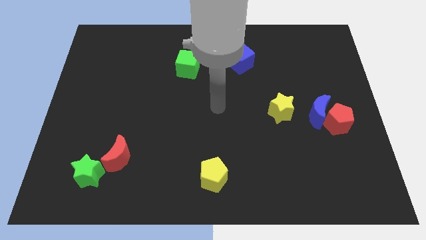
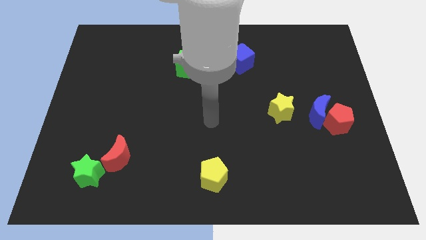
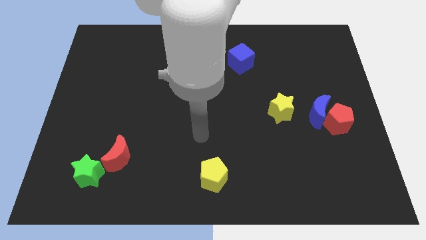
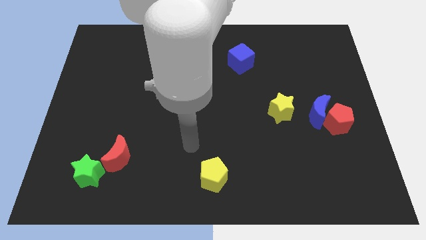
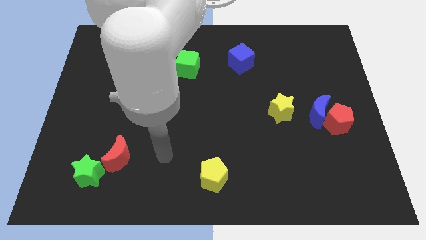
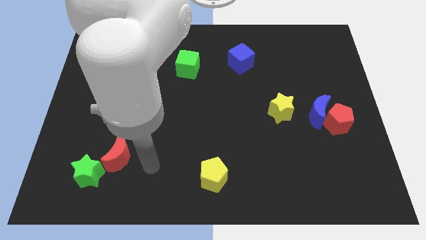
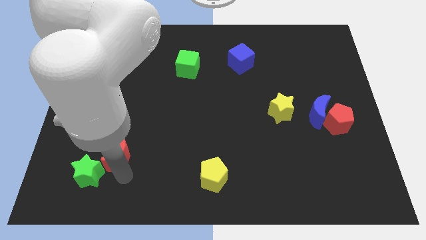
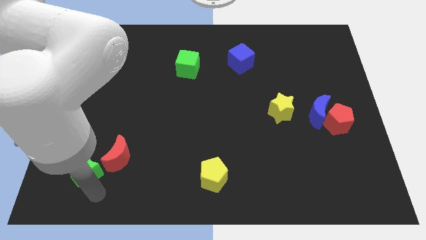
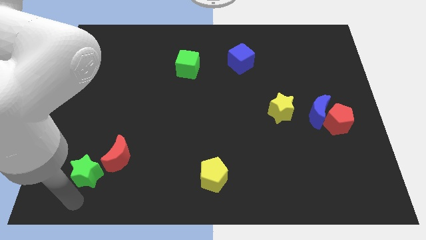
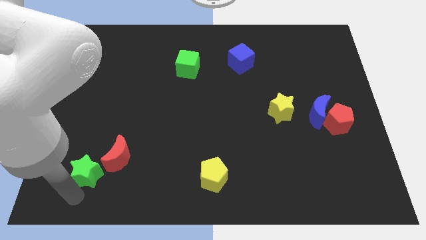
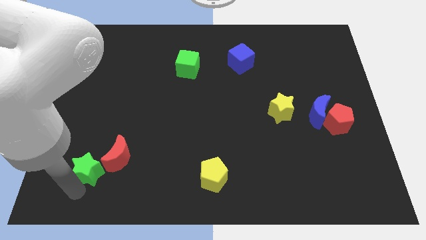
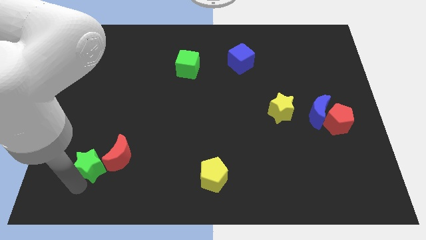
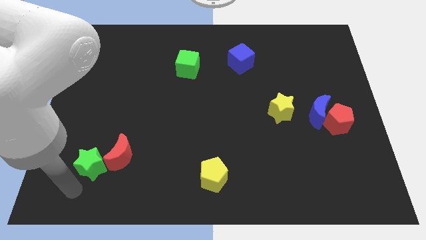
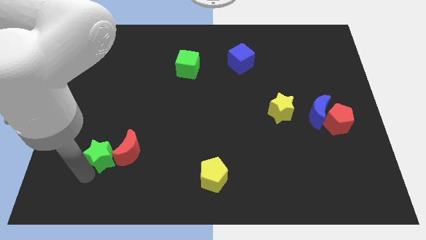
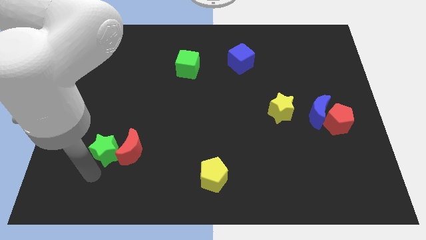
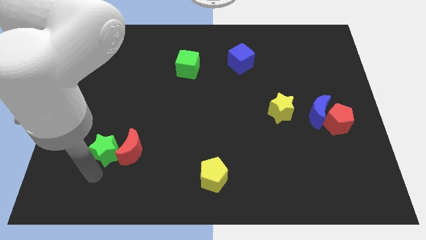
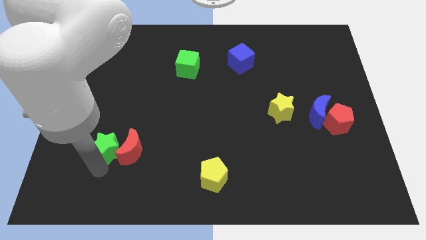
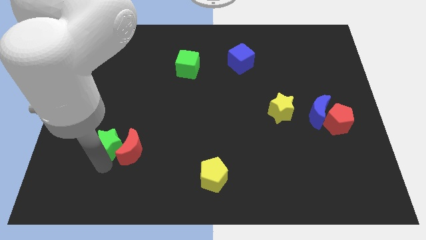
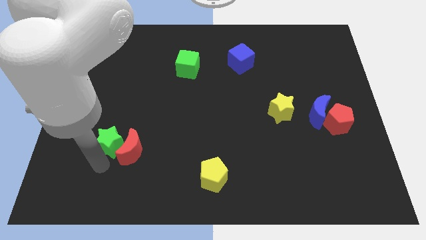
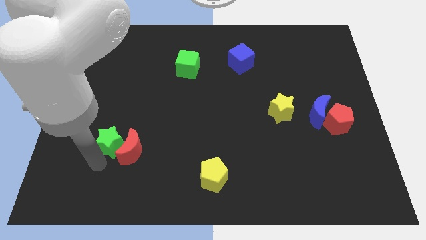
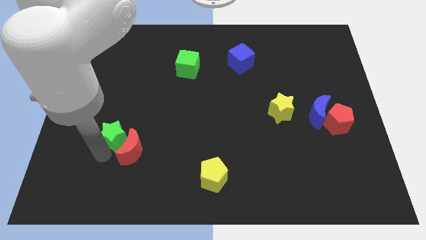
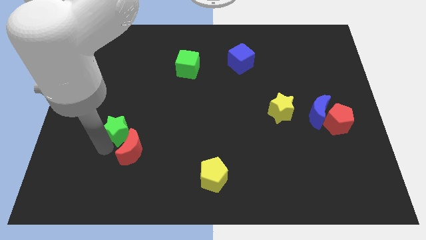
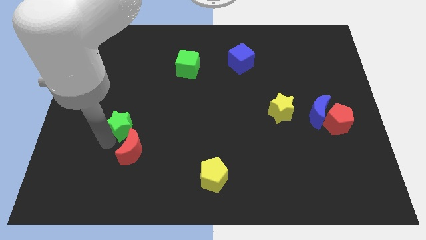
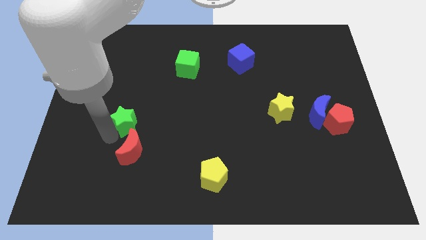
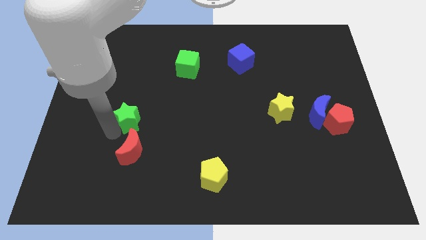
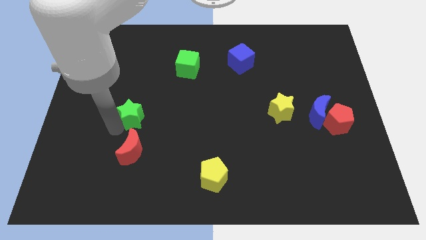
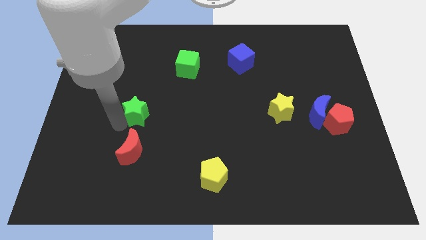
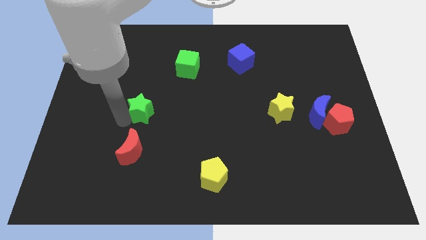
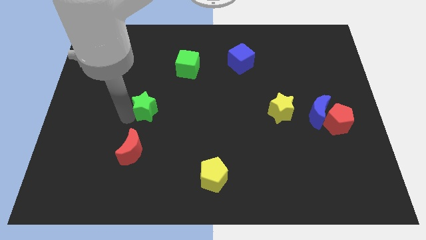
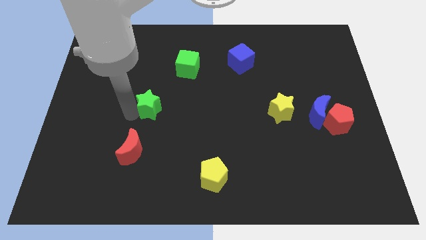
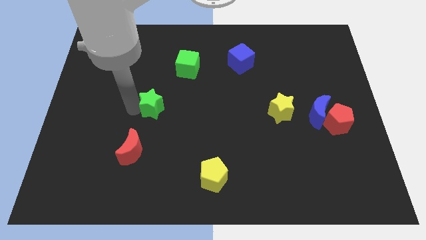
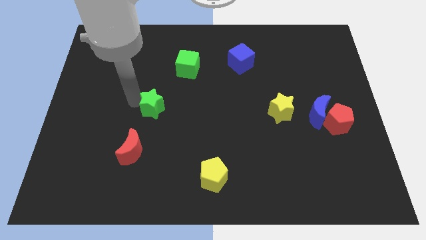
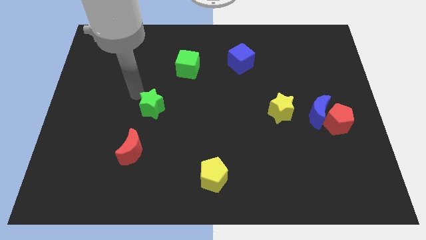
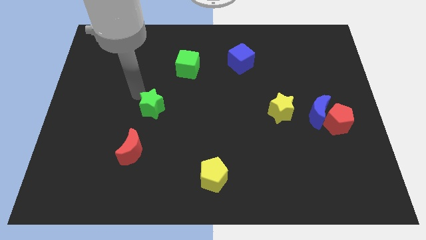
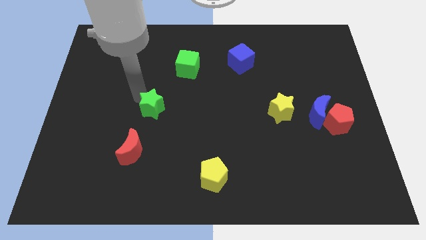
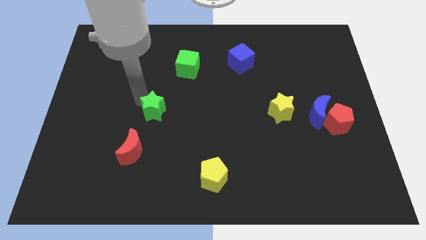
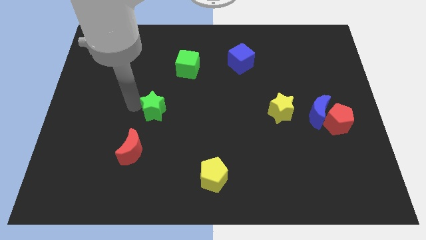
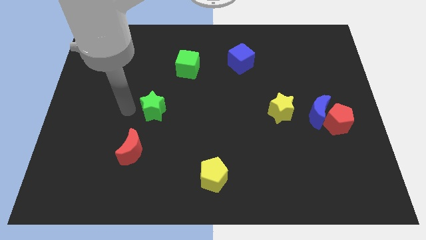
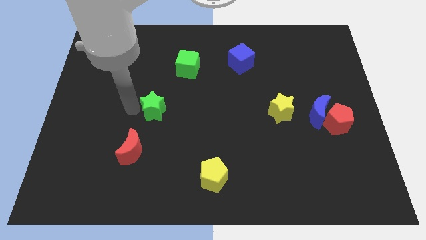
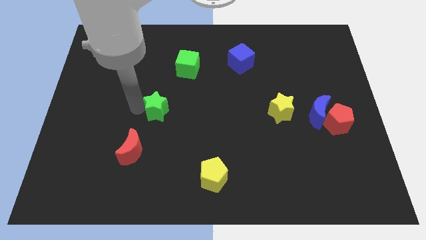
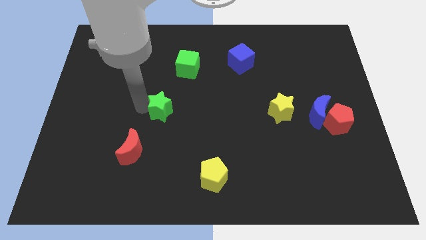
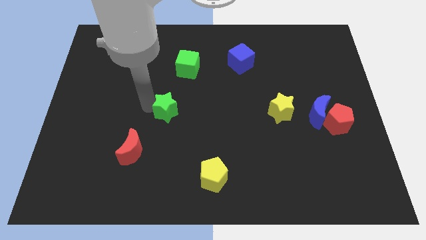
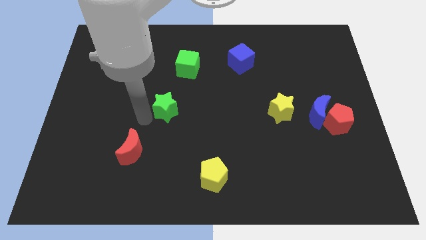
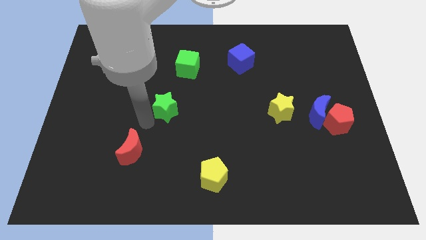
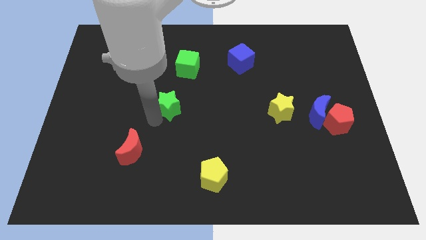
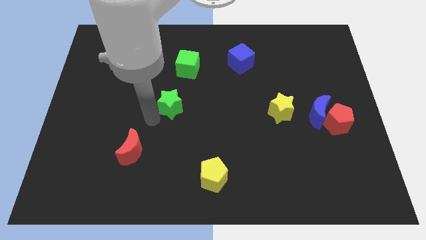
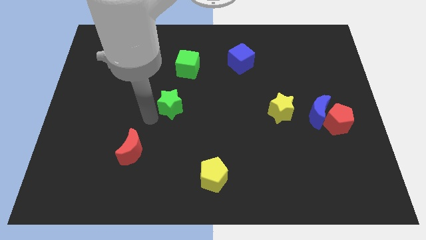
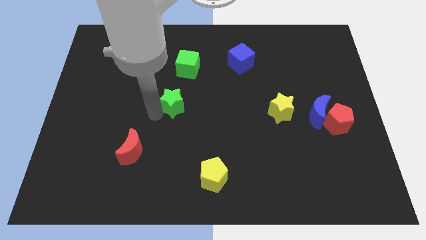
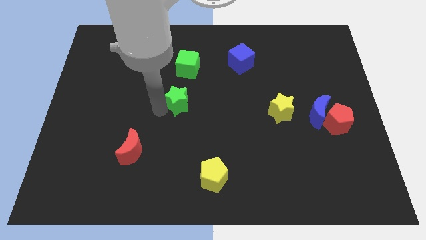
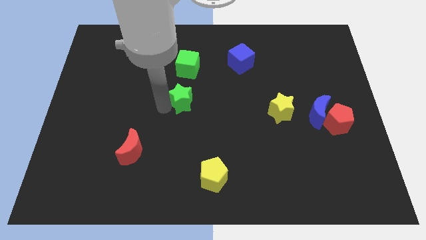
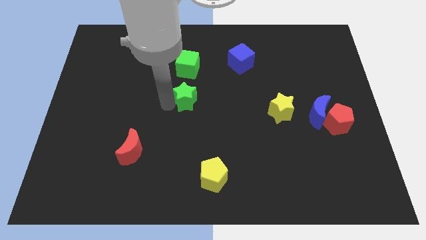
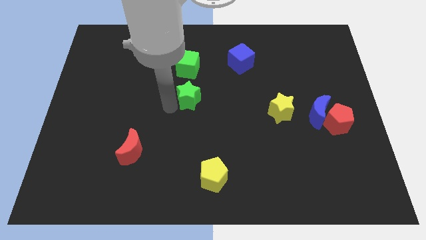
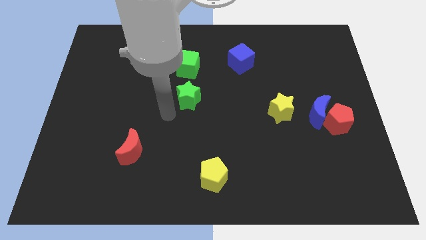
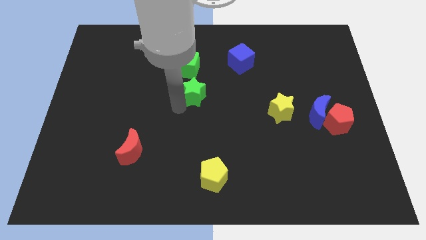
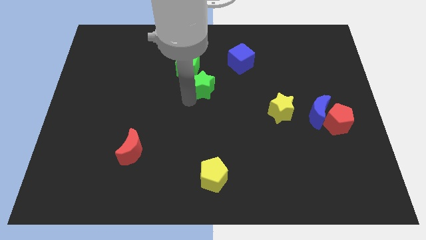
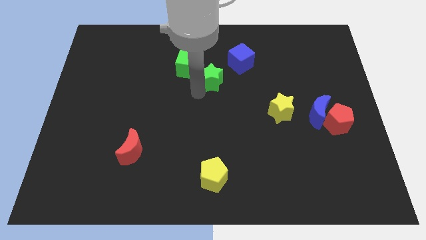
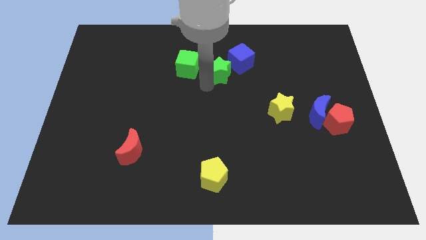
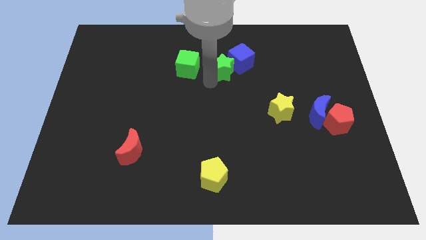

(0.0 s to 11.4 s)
put the green star towards the blue cube

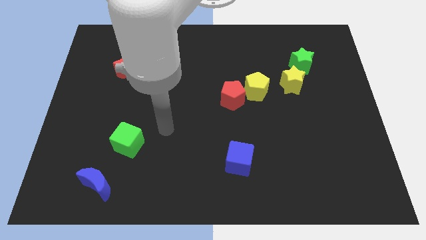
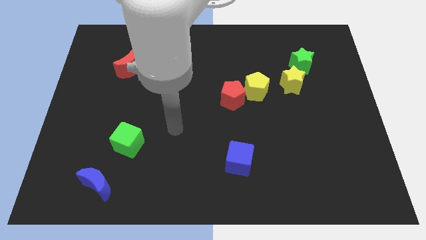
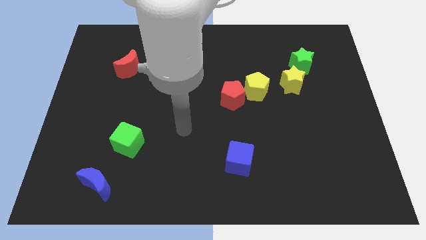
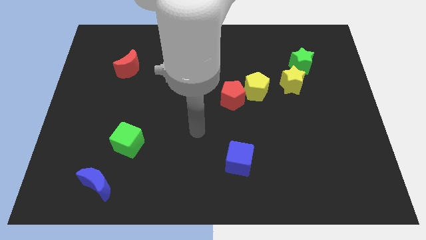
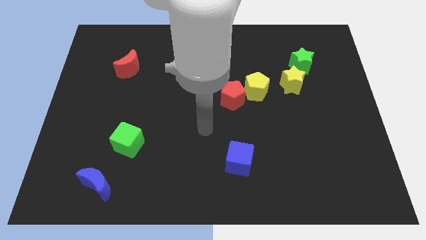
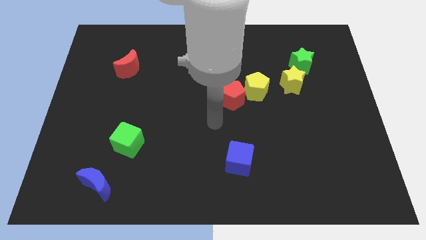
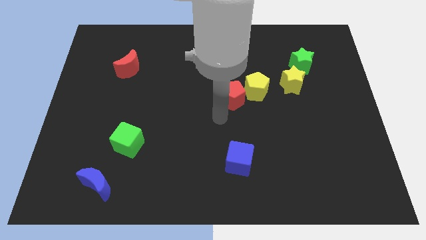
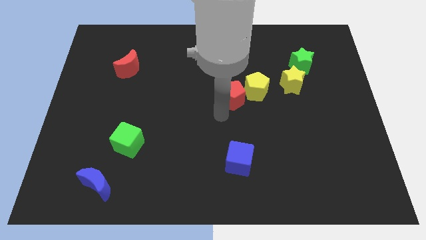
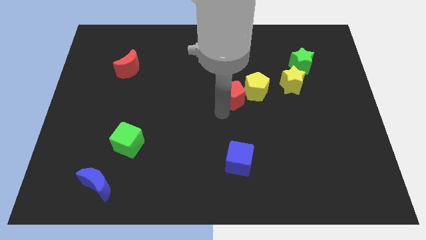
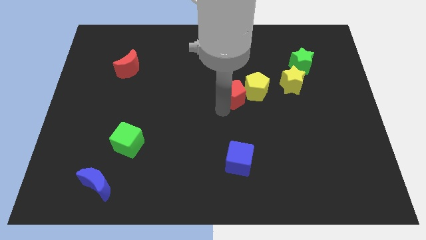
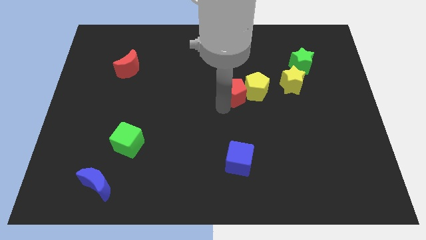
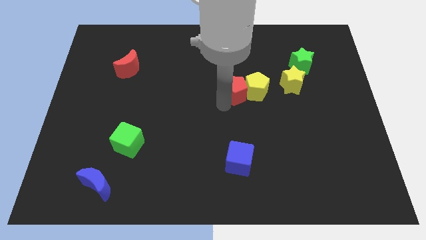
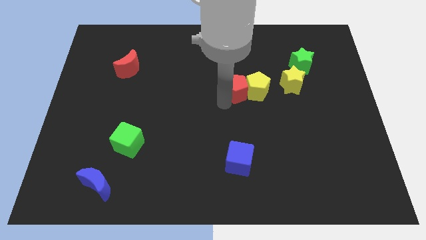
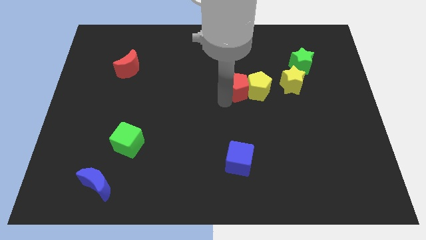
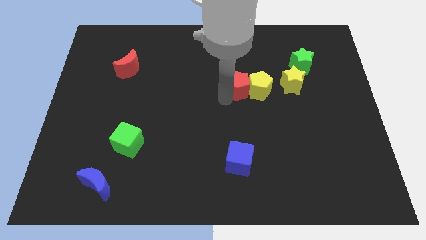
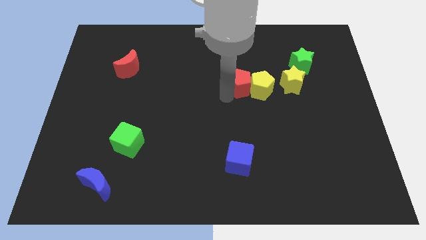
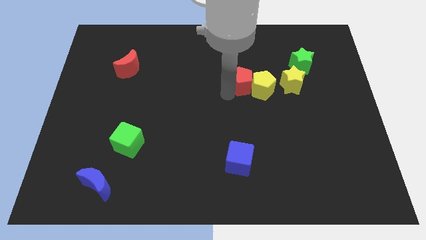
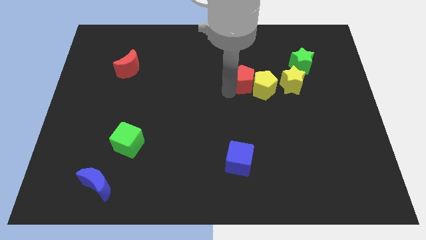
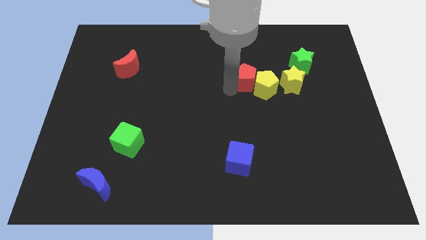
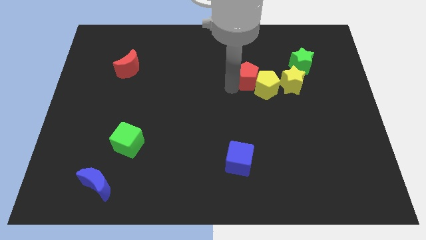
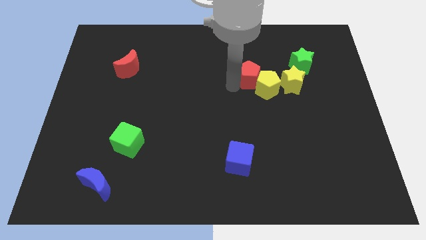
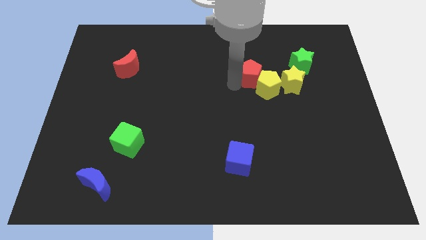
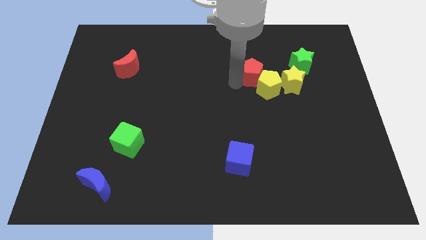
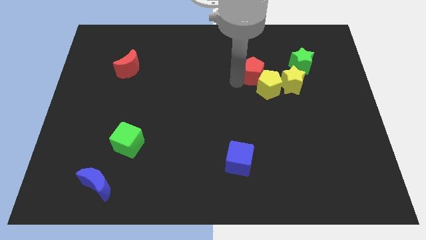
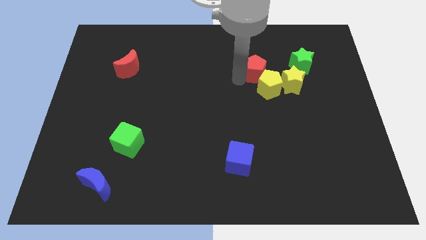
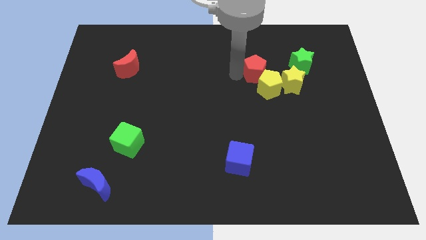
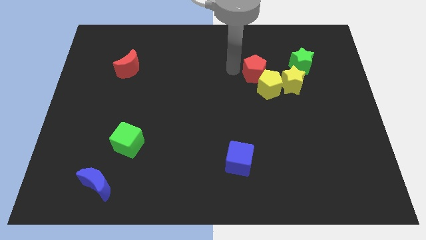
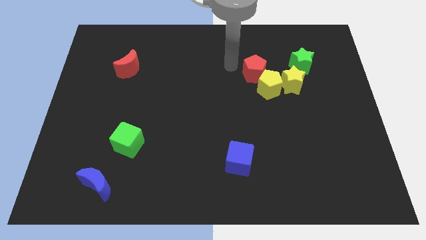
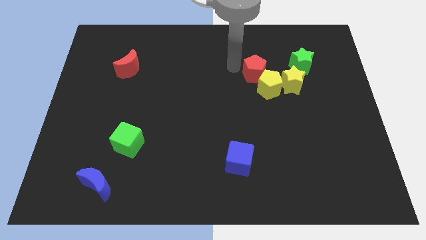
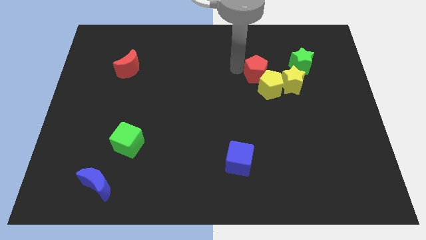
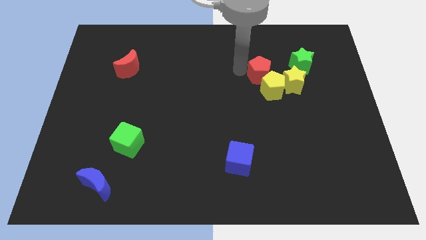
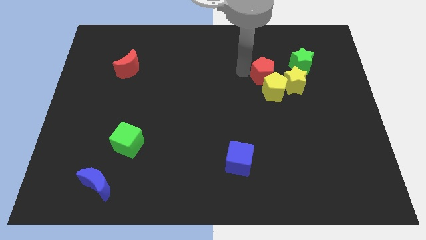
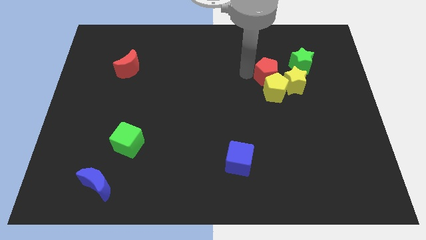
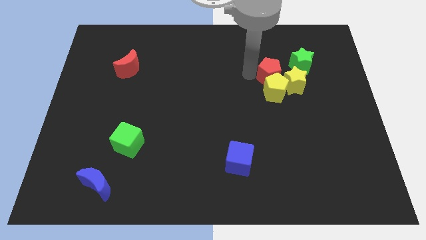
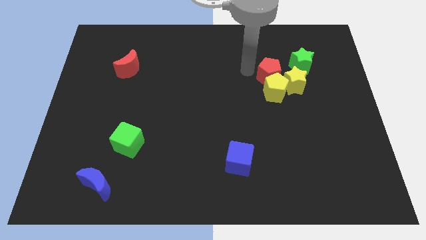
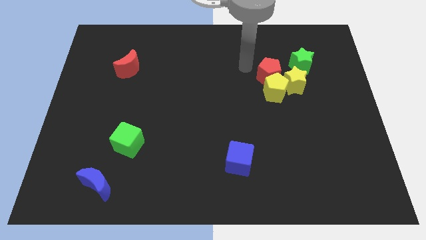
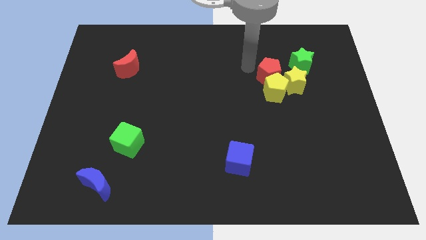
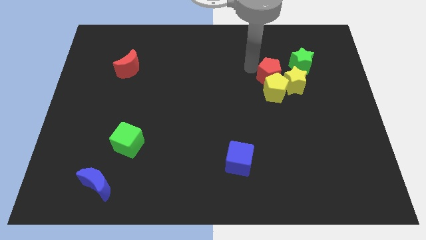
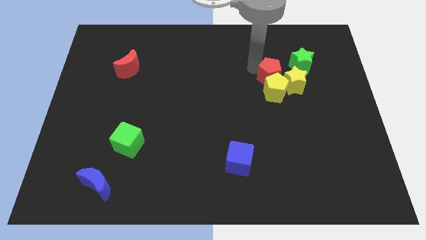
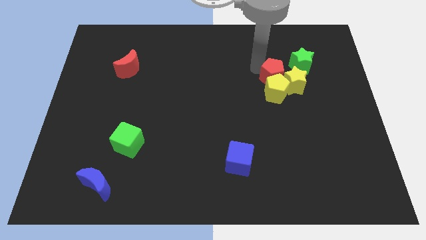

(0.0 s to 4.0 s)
move the red pentagon to the yellow star
